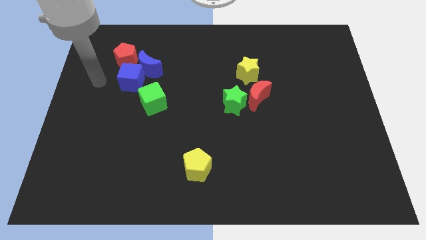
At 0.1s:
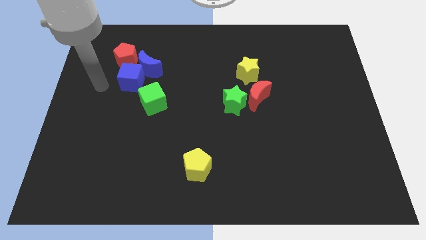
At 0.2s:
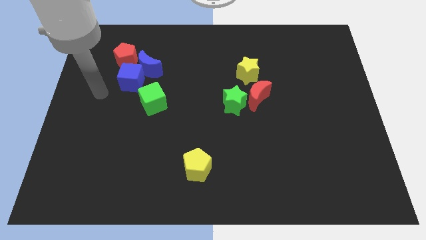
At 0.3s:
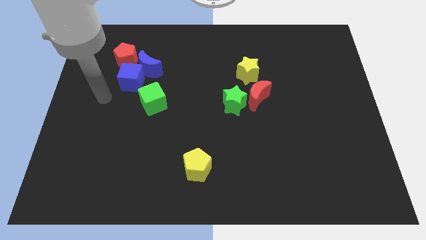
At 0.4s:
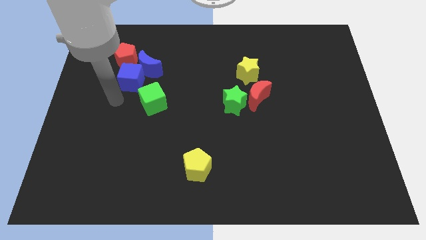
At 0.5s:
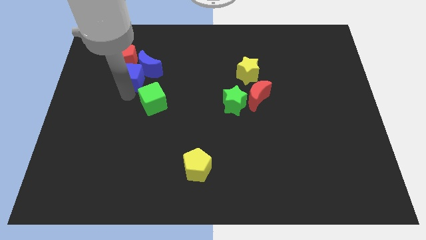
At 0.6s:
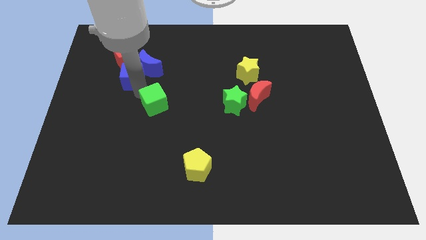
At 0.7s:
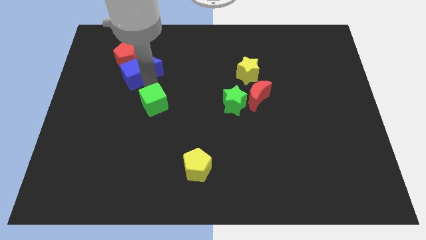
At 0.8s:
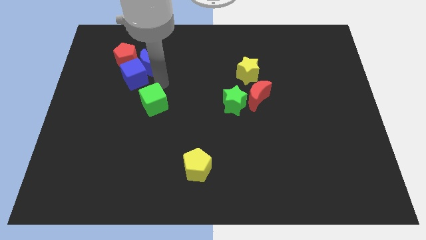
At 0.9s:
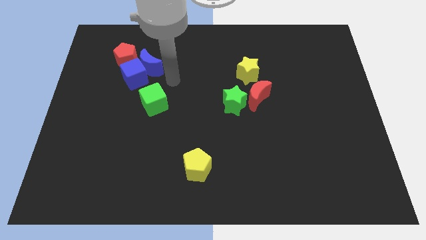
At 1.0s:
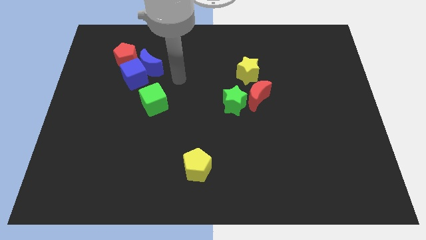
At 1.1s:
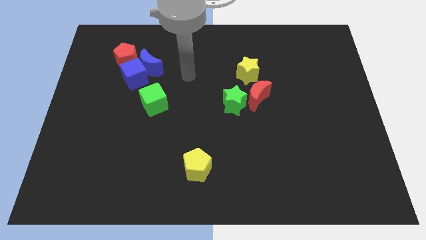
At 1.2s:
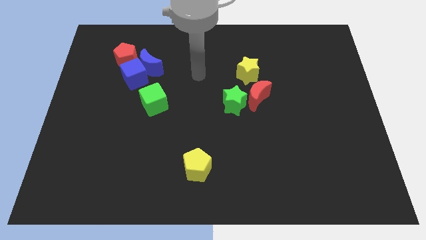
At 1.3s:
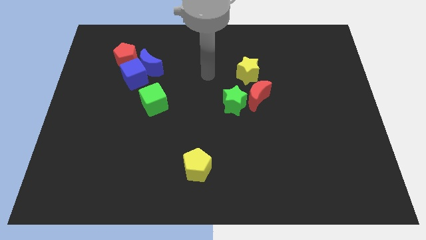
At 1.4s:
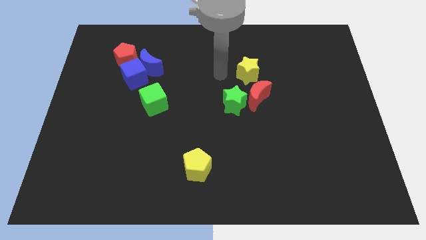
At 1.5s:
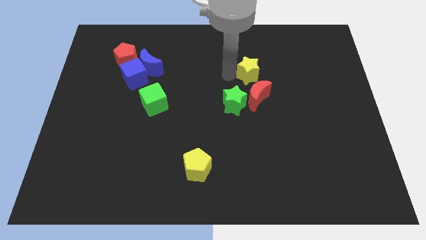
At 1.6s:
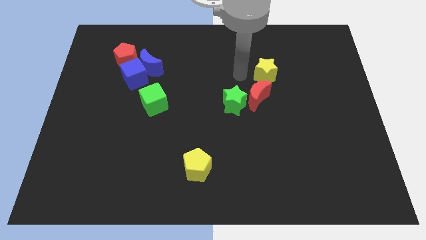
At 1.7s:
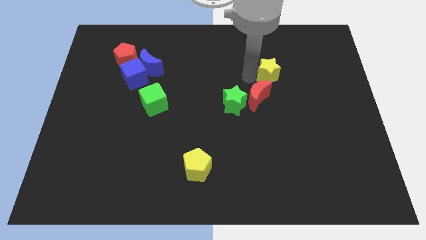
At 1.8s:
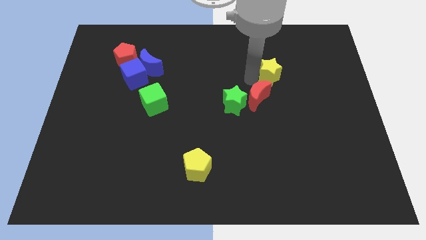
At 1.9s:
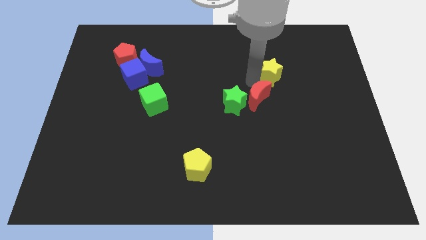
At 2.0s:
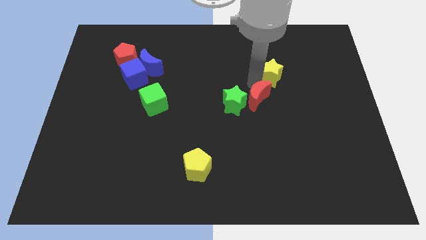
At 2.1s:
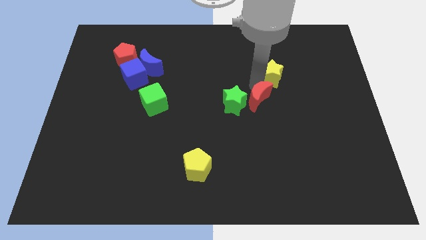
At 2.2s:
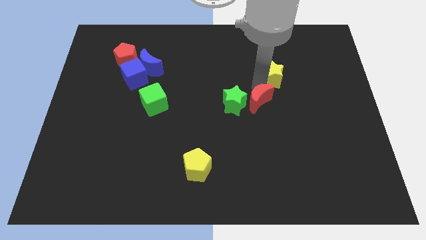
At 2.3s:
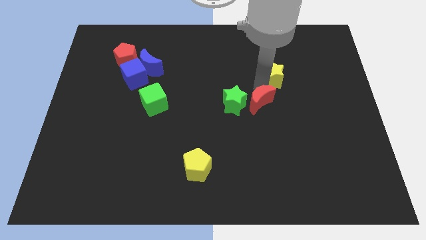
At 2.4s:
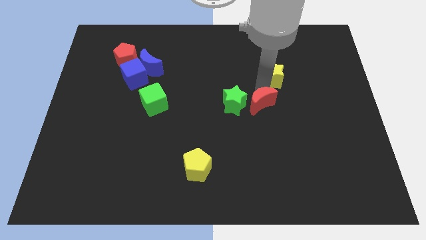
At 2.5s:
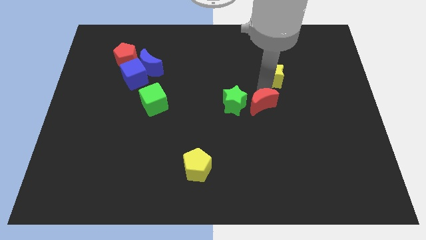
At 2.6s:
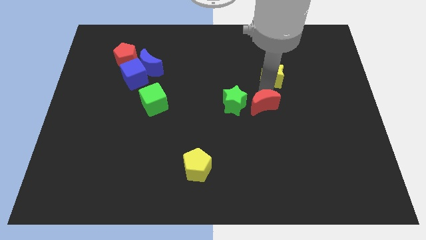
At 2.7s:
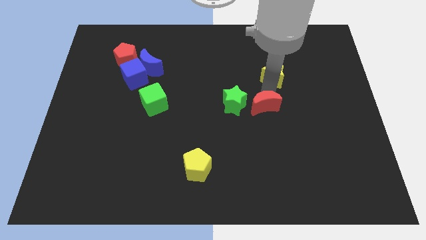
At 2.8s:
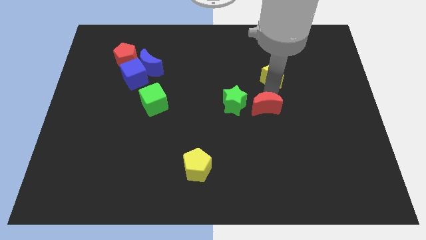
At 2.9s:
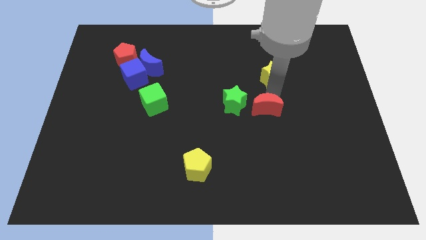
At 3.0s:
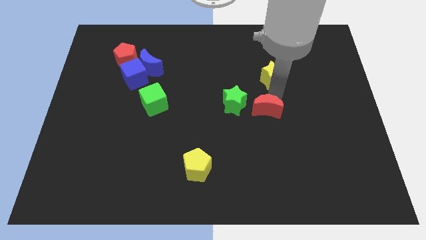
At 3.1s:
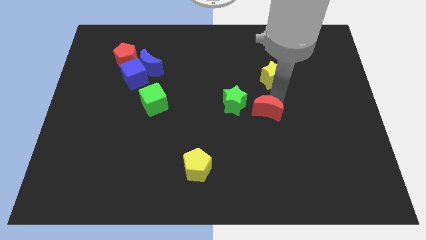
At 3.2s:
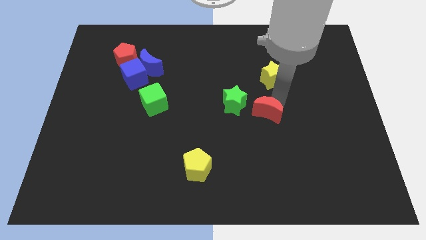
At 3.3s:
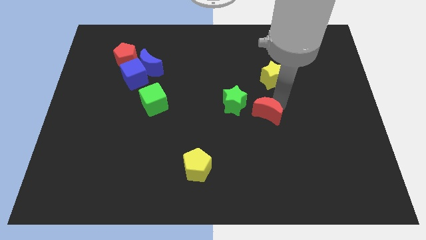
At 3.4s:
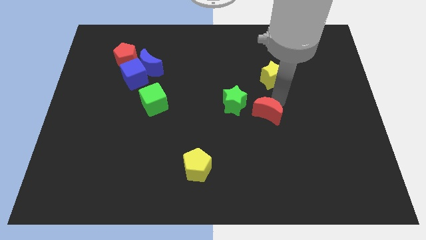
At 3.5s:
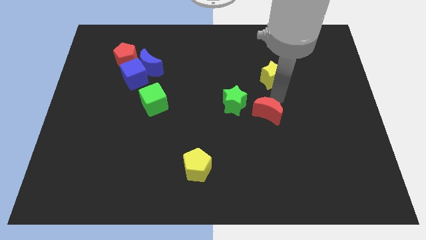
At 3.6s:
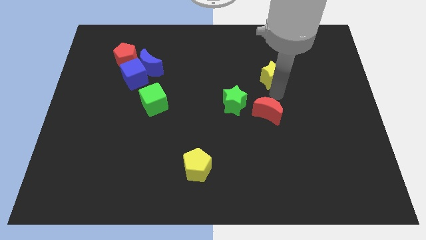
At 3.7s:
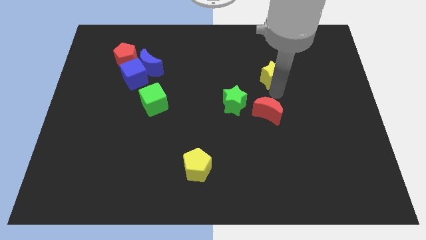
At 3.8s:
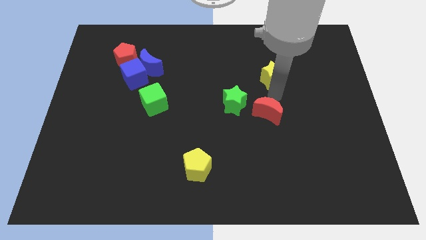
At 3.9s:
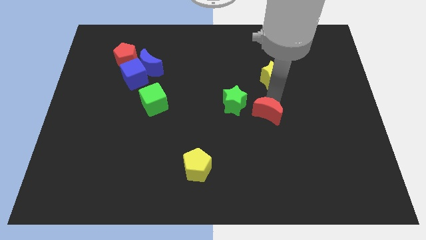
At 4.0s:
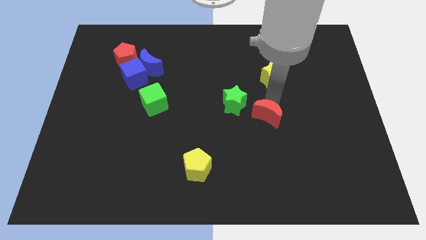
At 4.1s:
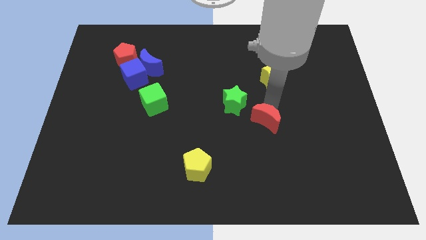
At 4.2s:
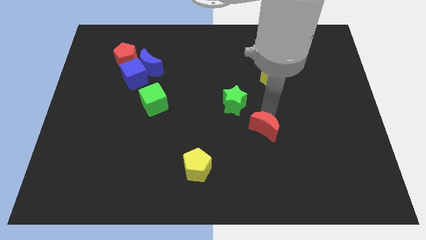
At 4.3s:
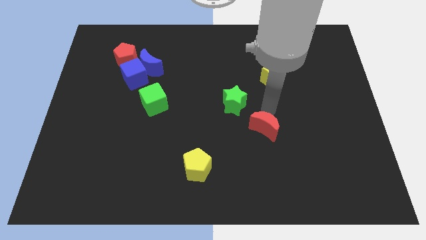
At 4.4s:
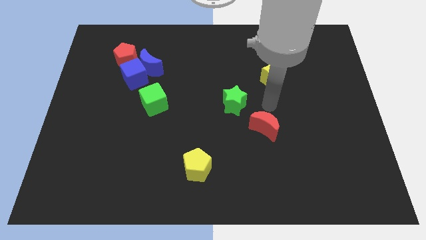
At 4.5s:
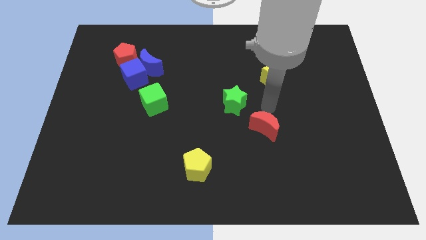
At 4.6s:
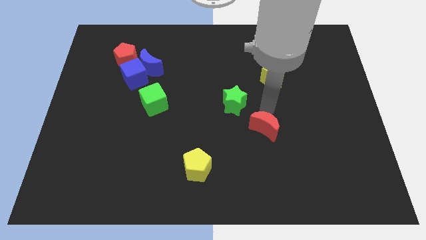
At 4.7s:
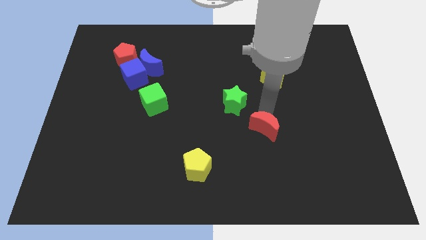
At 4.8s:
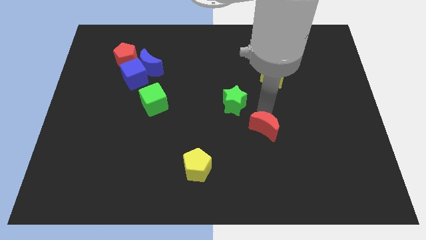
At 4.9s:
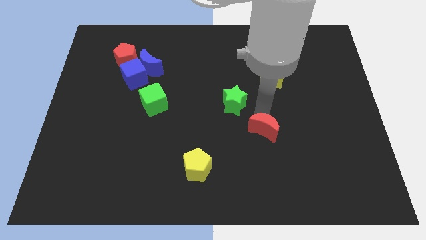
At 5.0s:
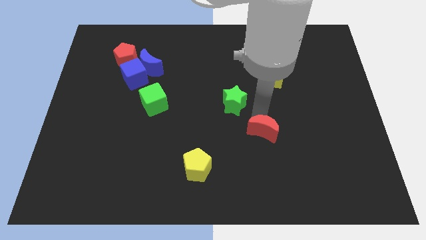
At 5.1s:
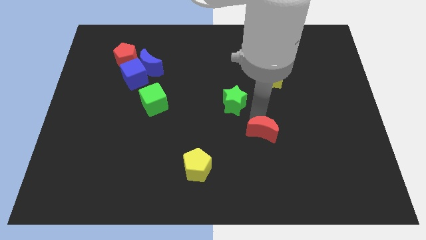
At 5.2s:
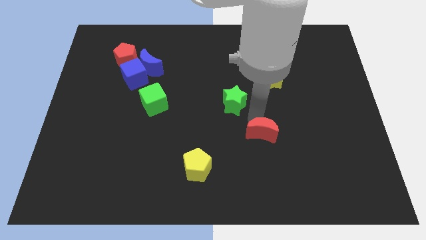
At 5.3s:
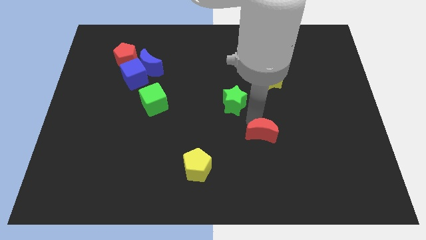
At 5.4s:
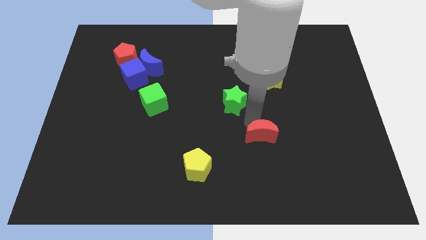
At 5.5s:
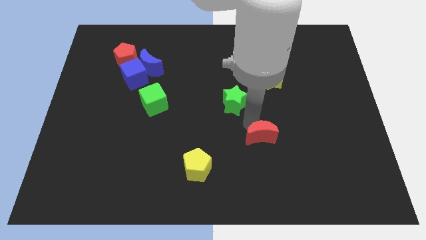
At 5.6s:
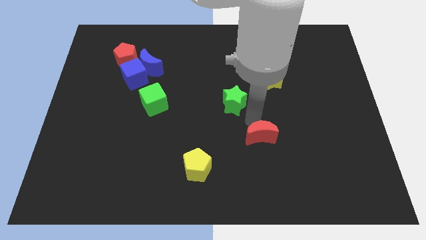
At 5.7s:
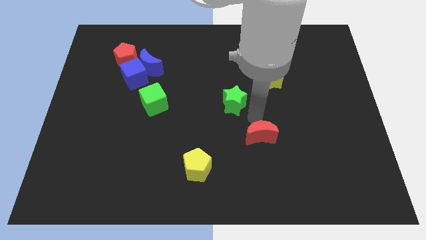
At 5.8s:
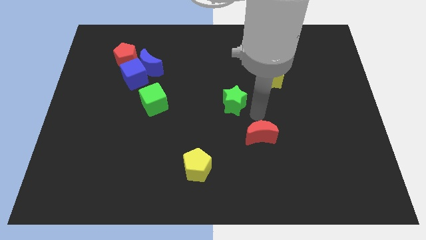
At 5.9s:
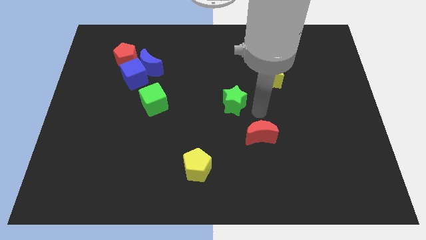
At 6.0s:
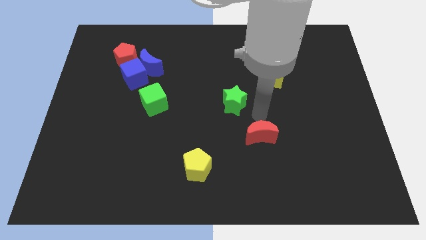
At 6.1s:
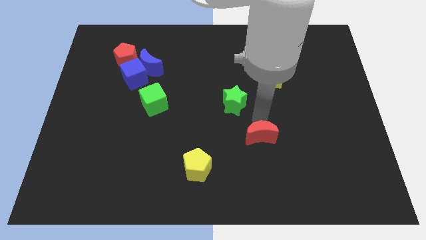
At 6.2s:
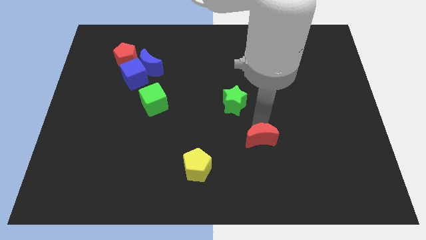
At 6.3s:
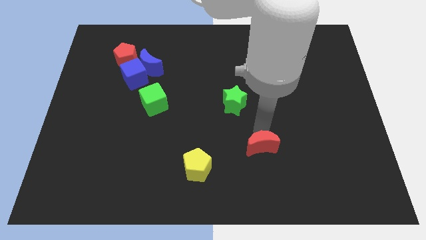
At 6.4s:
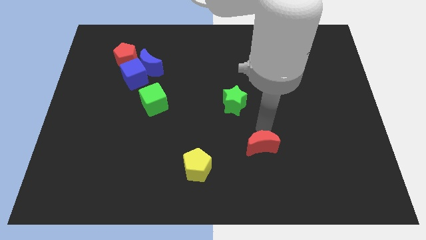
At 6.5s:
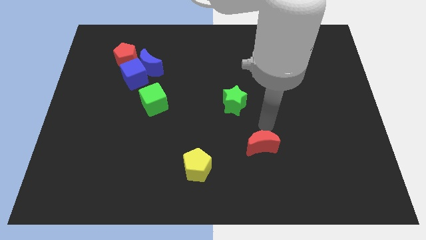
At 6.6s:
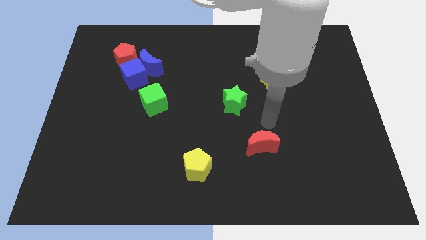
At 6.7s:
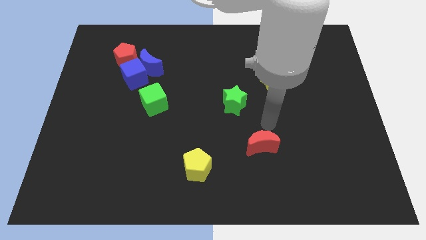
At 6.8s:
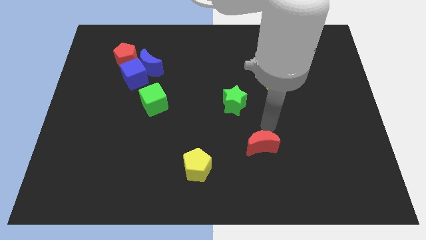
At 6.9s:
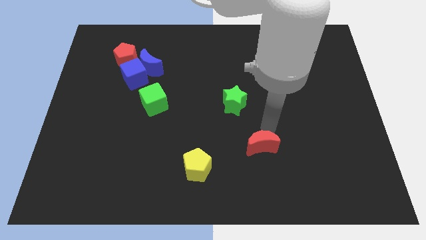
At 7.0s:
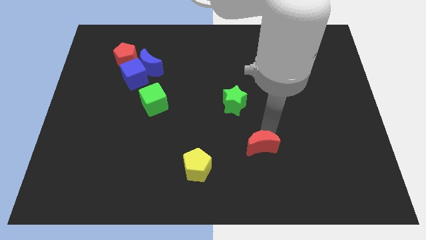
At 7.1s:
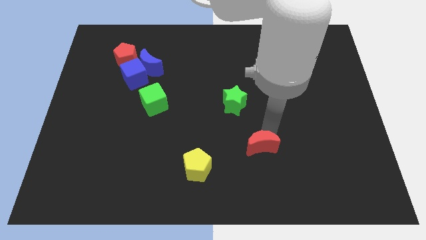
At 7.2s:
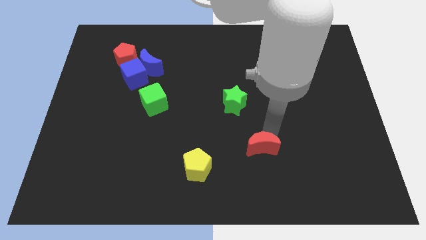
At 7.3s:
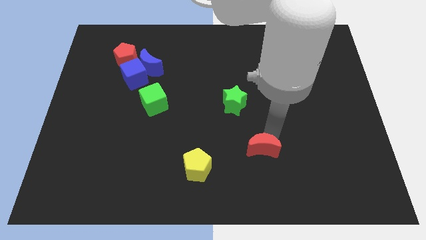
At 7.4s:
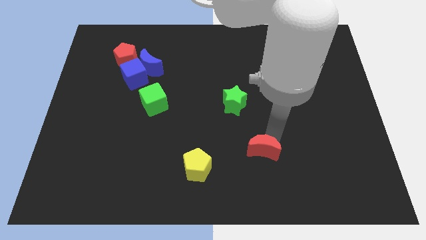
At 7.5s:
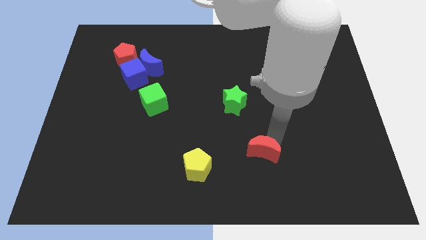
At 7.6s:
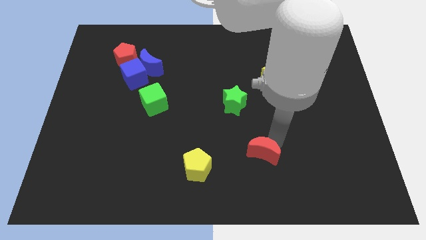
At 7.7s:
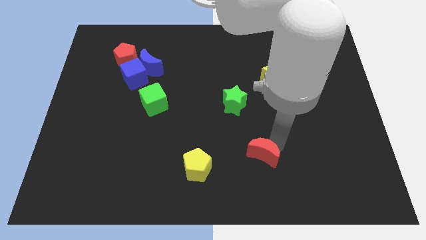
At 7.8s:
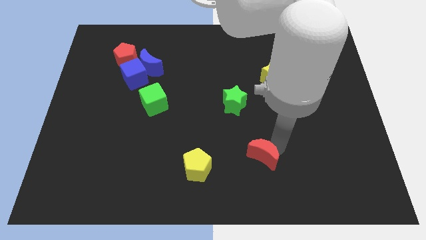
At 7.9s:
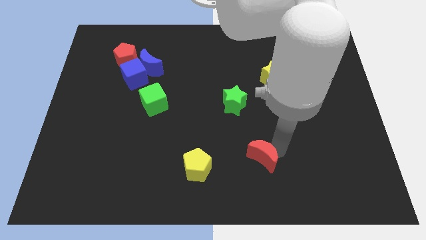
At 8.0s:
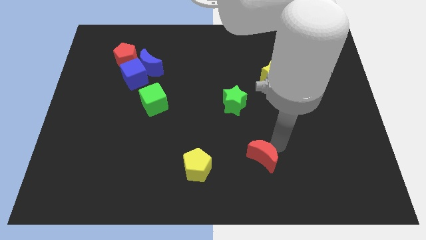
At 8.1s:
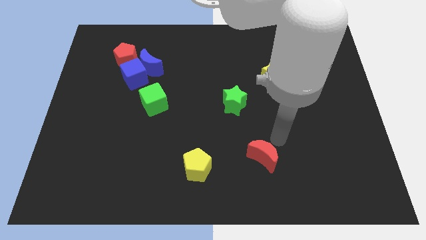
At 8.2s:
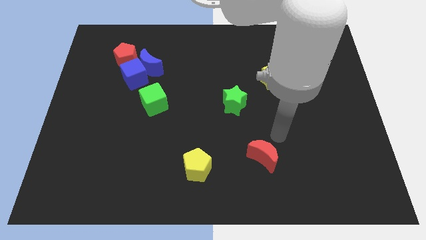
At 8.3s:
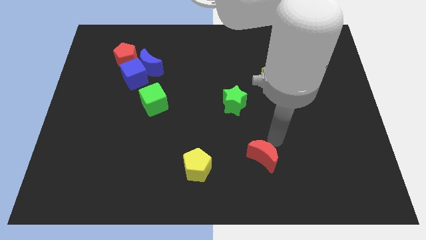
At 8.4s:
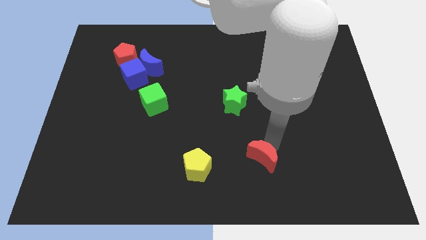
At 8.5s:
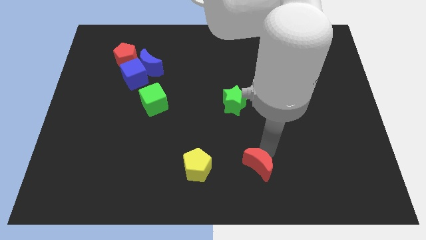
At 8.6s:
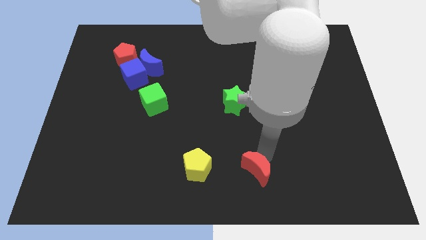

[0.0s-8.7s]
push the red moon to the bottom
